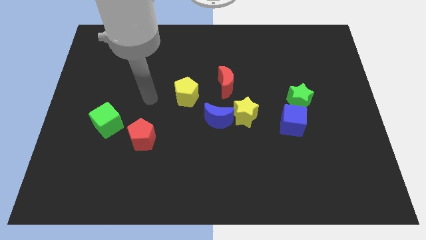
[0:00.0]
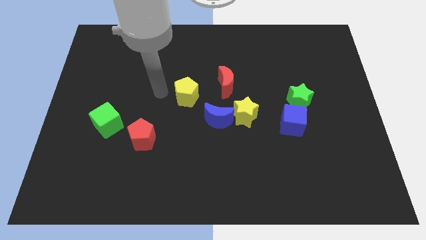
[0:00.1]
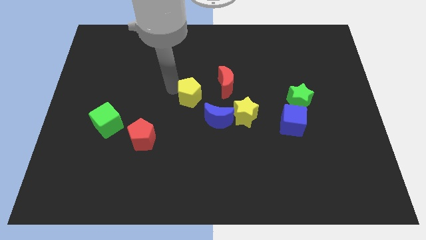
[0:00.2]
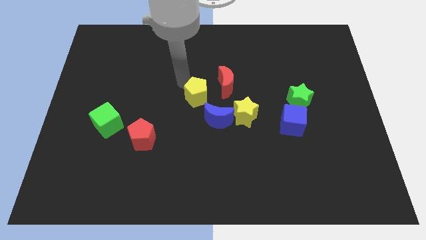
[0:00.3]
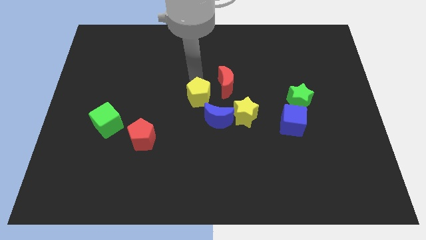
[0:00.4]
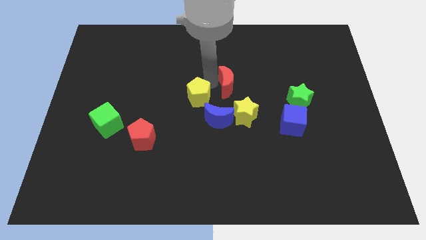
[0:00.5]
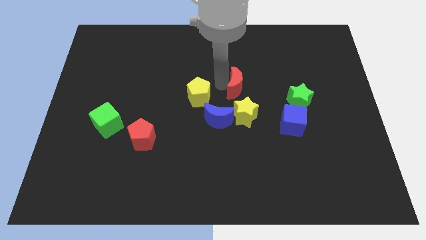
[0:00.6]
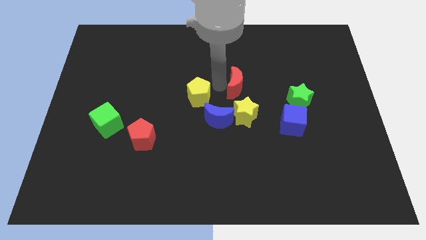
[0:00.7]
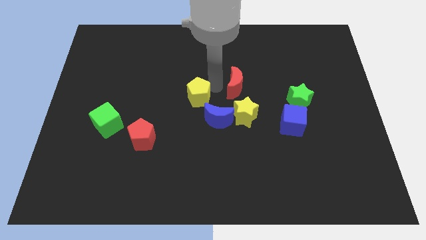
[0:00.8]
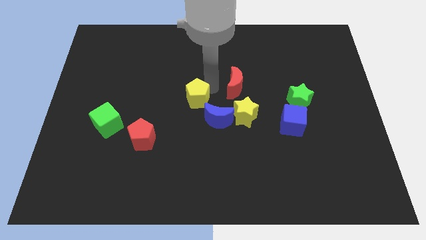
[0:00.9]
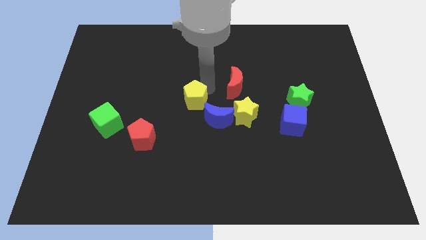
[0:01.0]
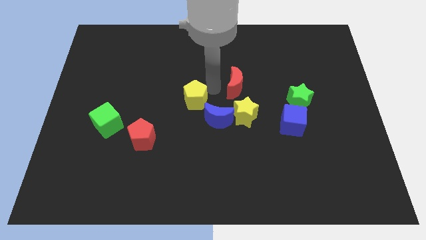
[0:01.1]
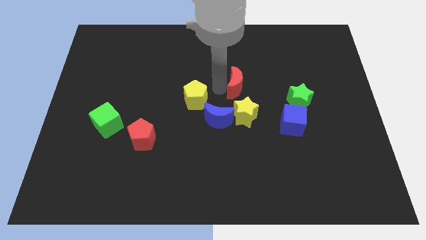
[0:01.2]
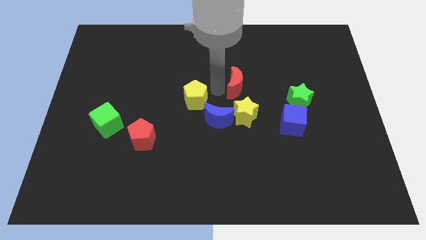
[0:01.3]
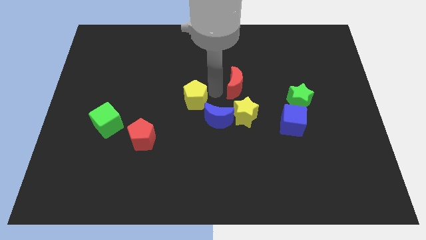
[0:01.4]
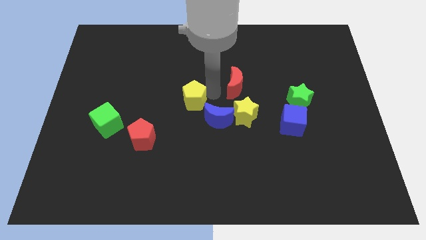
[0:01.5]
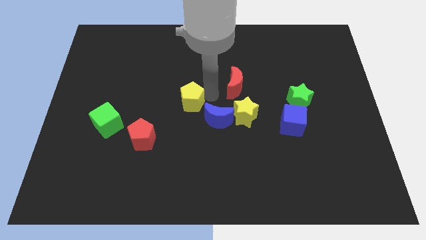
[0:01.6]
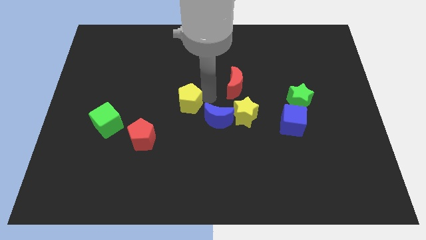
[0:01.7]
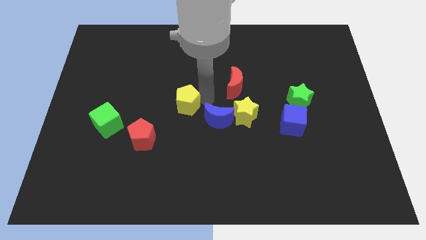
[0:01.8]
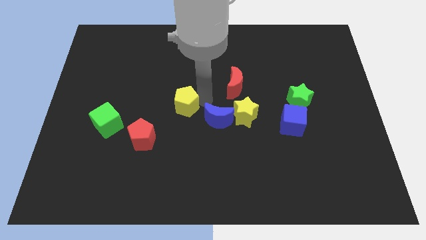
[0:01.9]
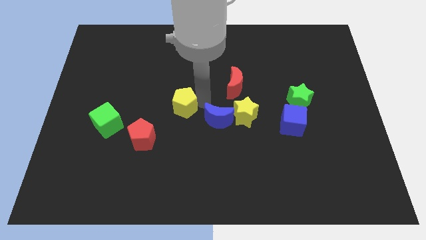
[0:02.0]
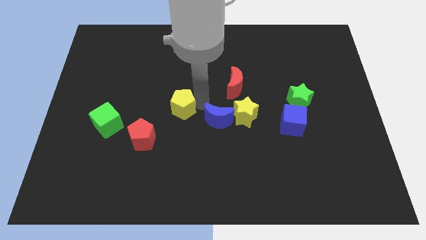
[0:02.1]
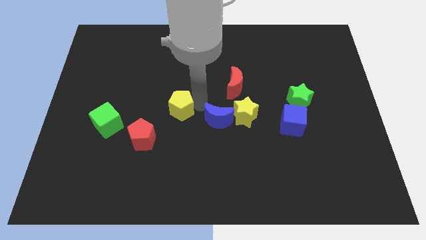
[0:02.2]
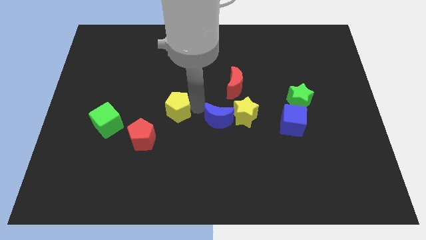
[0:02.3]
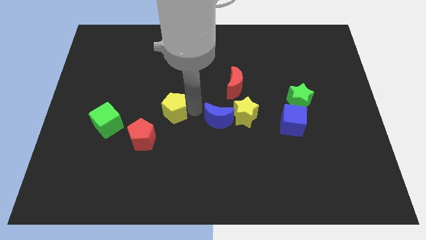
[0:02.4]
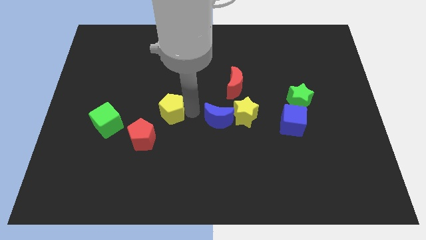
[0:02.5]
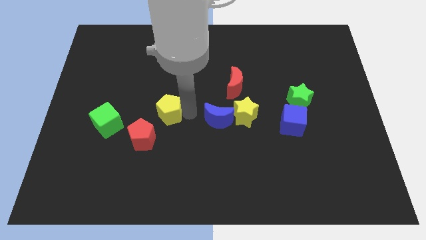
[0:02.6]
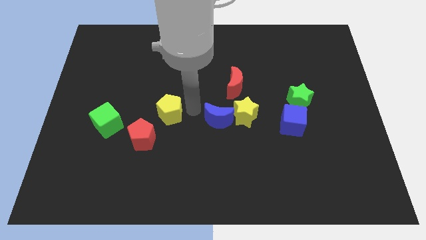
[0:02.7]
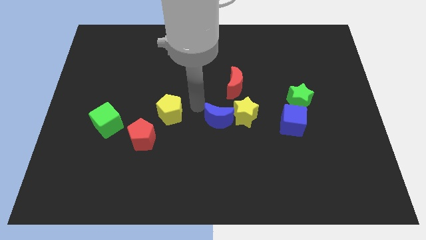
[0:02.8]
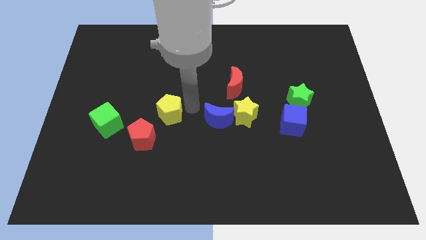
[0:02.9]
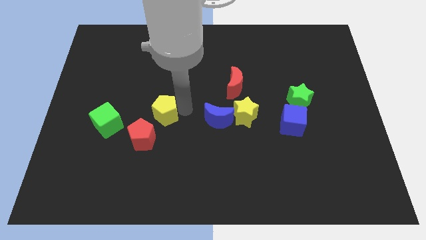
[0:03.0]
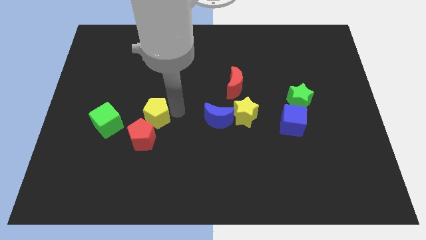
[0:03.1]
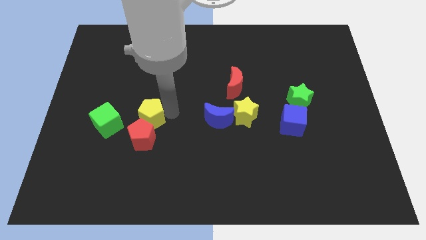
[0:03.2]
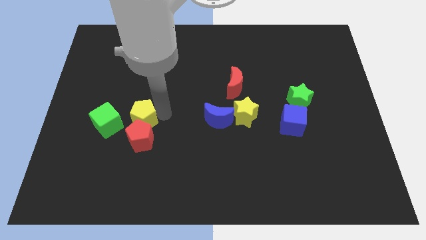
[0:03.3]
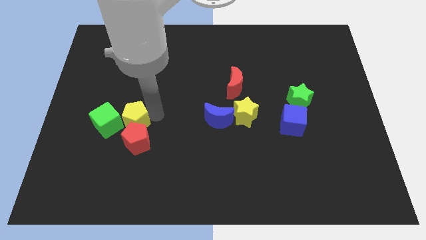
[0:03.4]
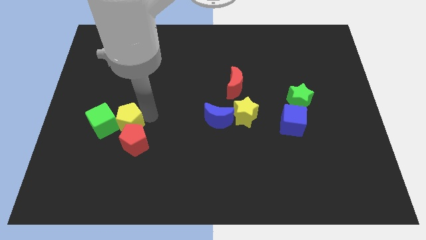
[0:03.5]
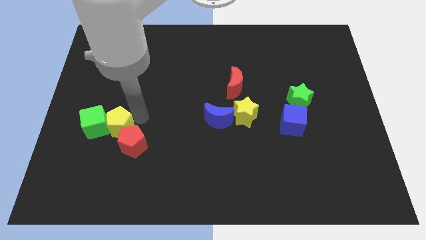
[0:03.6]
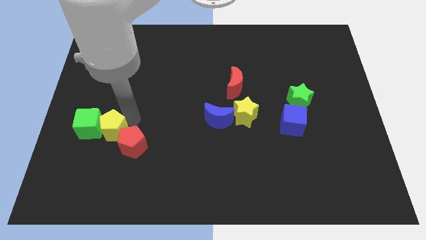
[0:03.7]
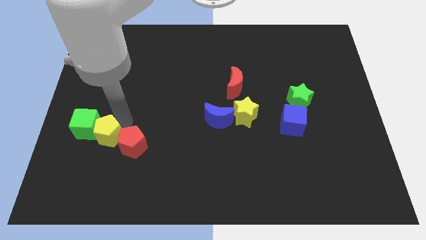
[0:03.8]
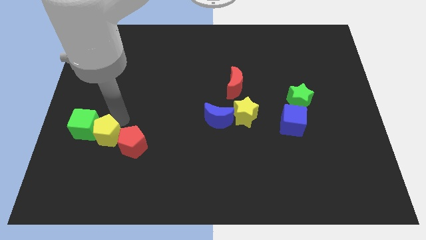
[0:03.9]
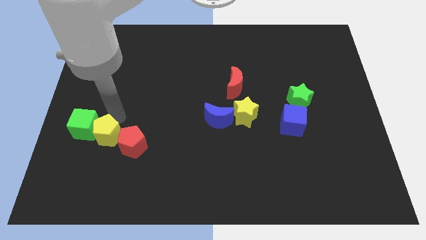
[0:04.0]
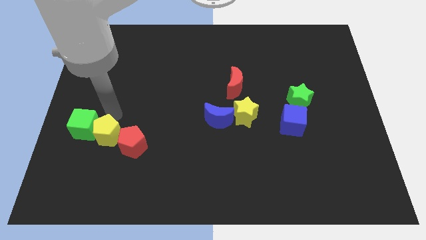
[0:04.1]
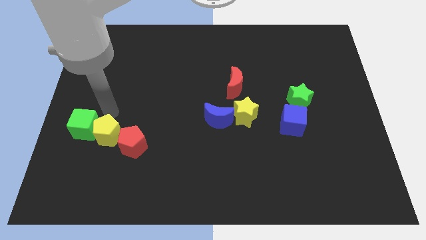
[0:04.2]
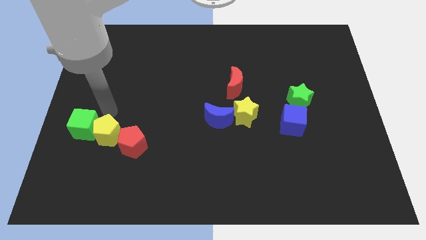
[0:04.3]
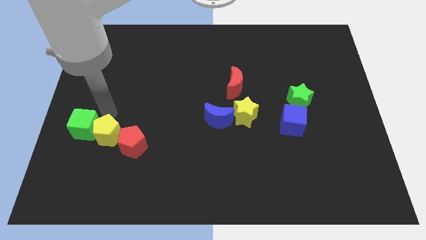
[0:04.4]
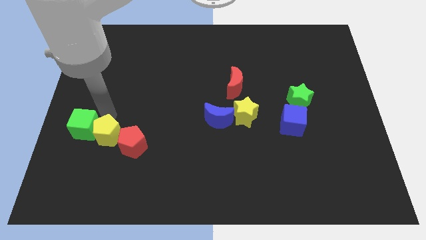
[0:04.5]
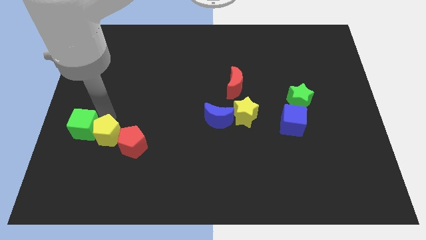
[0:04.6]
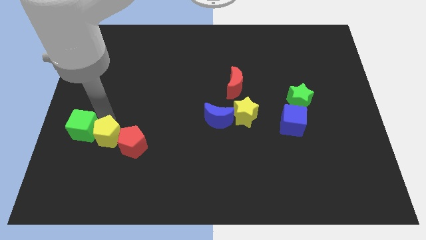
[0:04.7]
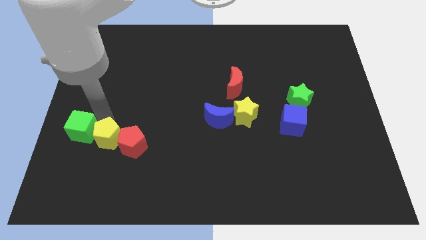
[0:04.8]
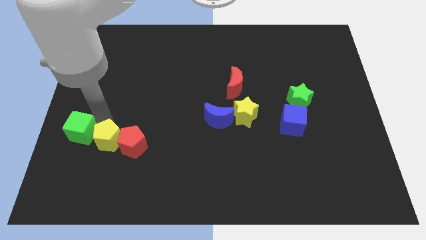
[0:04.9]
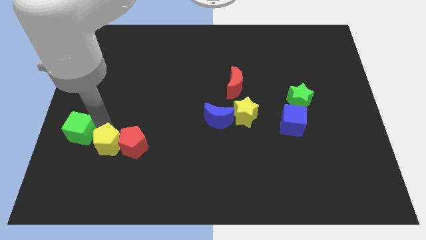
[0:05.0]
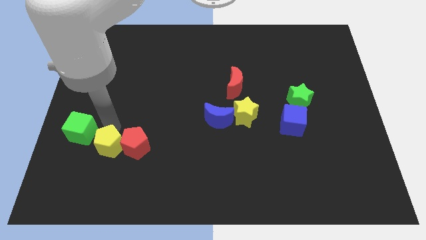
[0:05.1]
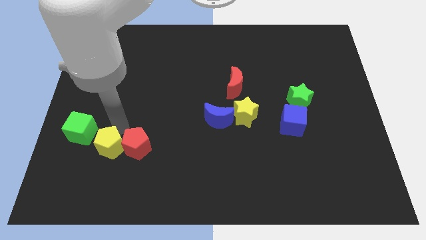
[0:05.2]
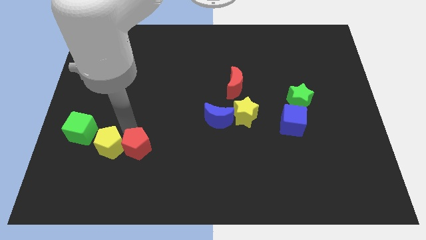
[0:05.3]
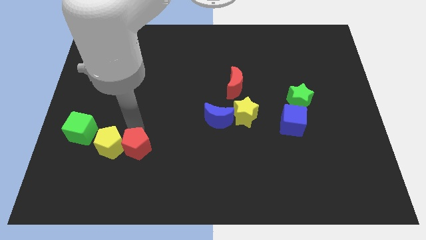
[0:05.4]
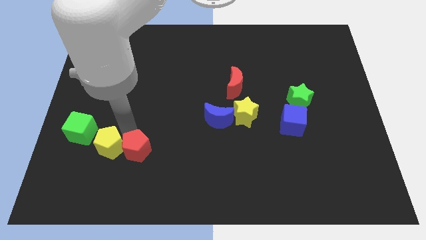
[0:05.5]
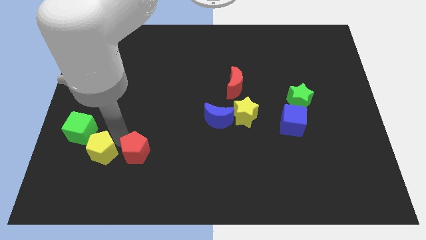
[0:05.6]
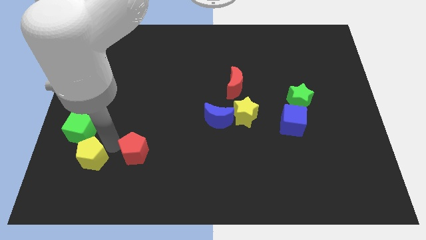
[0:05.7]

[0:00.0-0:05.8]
slide the yellow pentagon below the green cube

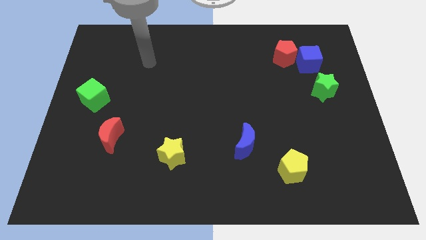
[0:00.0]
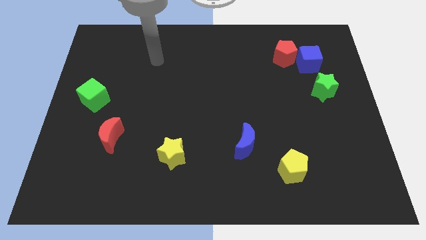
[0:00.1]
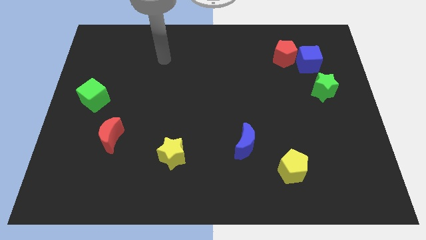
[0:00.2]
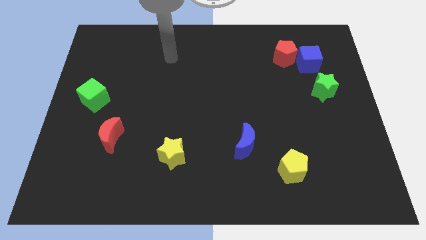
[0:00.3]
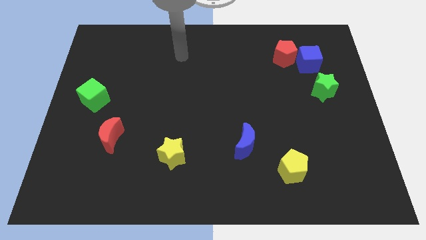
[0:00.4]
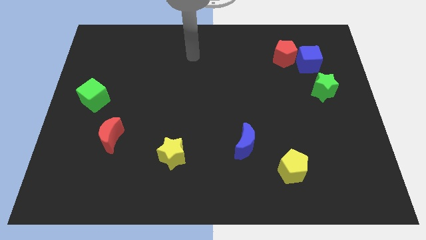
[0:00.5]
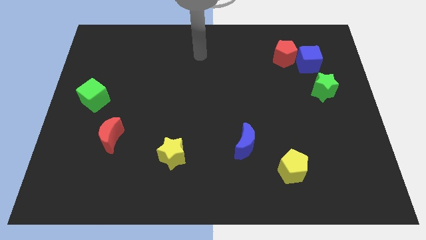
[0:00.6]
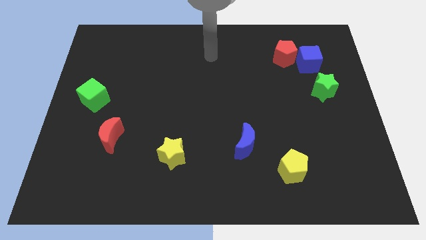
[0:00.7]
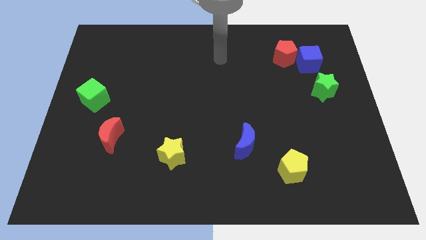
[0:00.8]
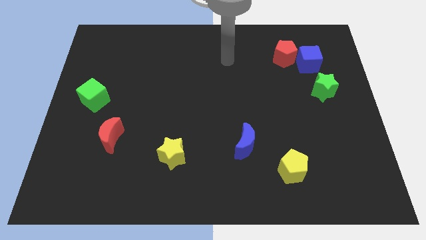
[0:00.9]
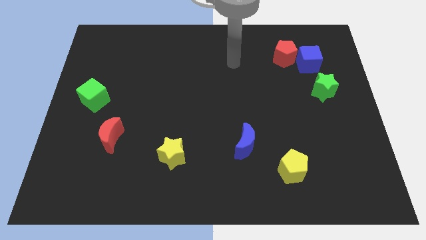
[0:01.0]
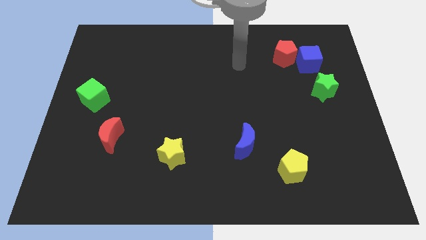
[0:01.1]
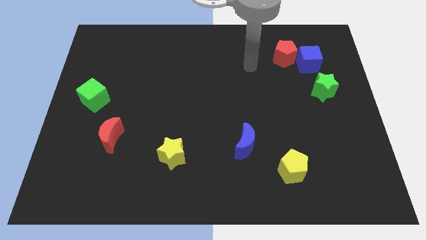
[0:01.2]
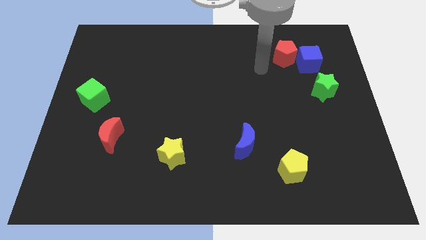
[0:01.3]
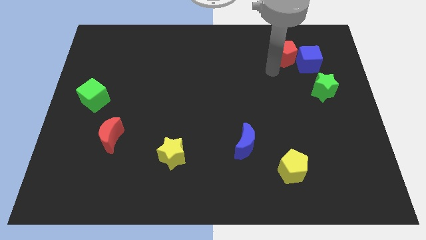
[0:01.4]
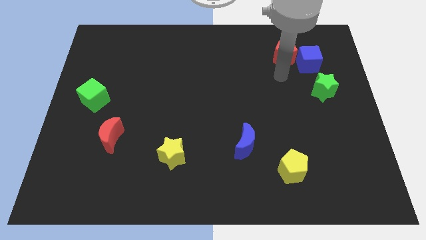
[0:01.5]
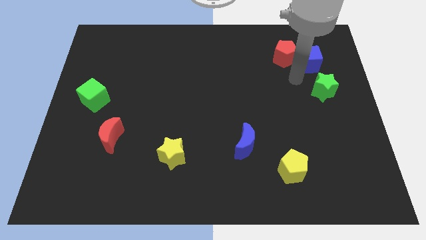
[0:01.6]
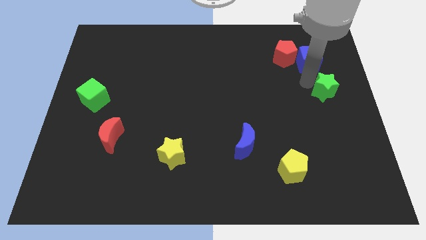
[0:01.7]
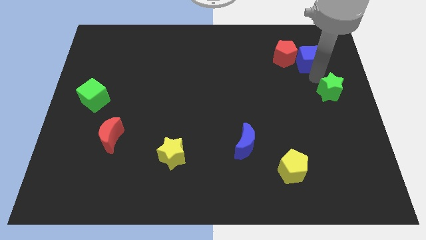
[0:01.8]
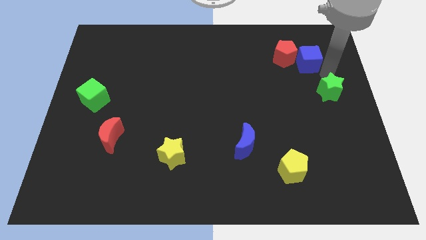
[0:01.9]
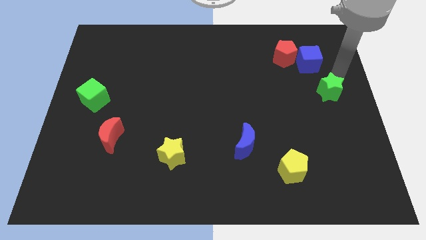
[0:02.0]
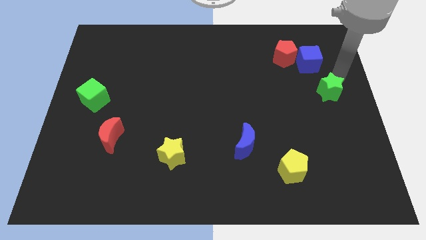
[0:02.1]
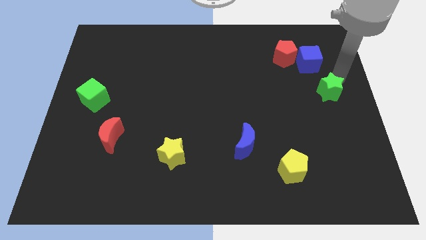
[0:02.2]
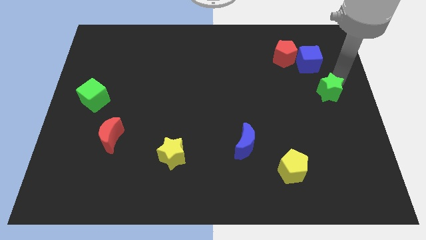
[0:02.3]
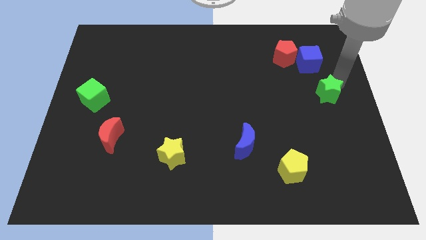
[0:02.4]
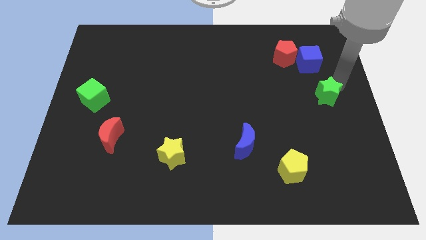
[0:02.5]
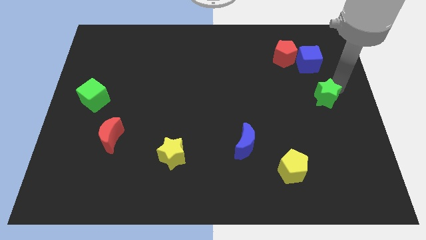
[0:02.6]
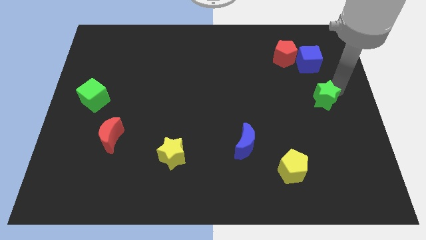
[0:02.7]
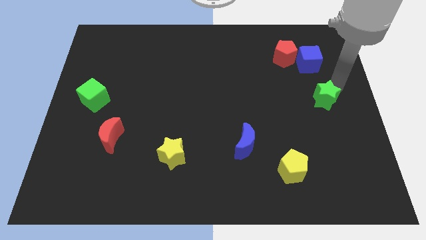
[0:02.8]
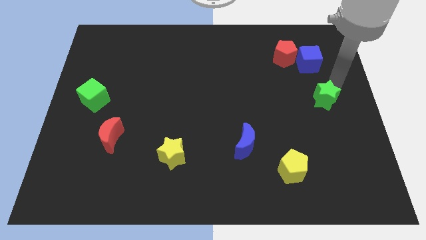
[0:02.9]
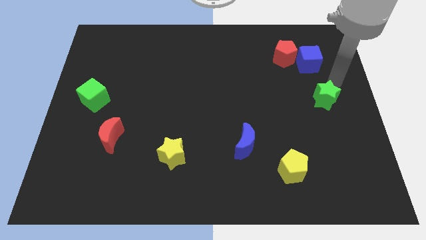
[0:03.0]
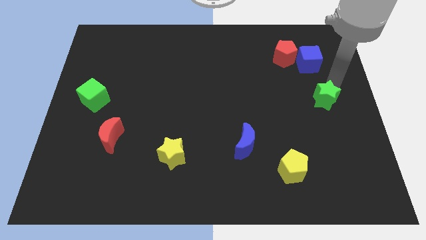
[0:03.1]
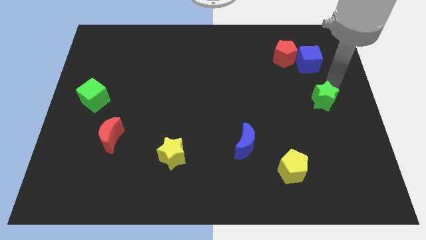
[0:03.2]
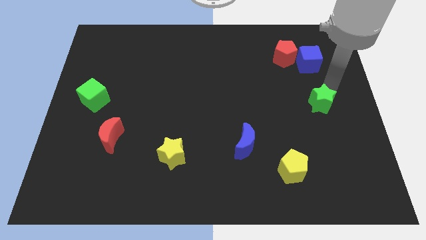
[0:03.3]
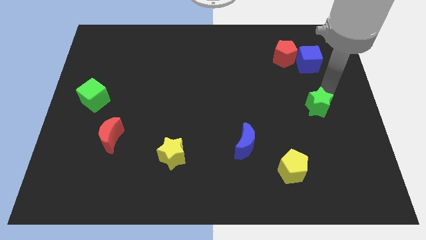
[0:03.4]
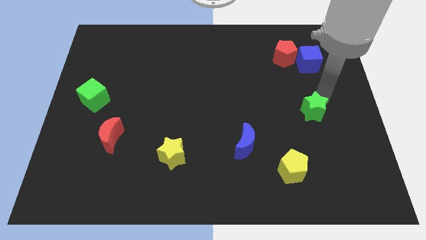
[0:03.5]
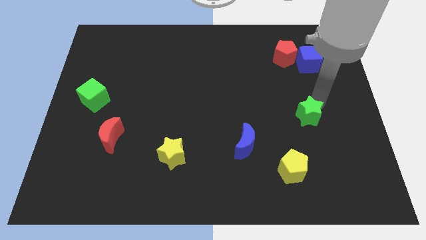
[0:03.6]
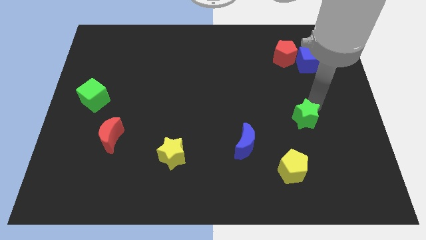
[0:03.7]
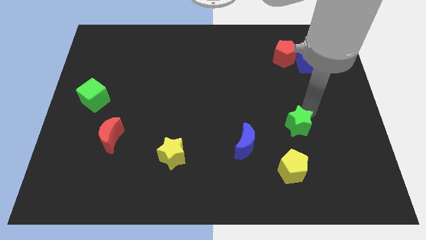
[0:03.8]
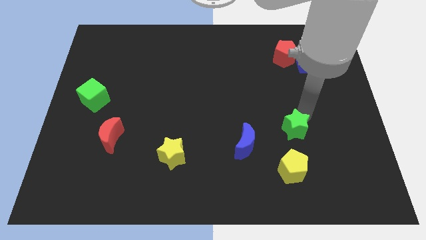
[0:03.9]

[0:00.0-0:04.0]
move the green star just right of the blue moon
